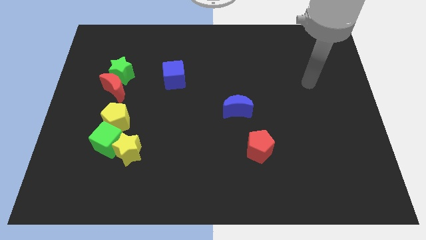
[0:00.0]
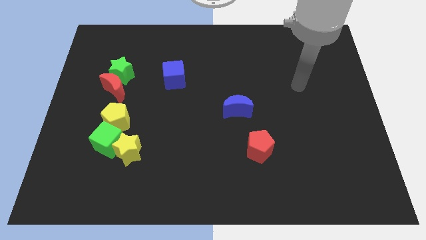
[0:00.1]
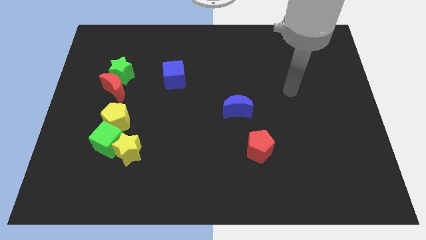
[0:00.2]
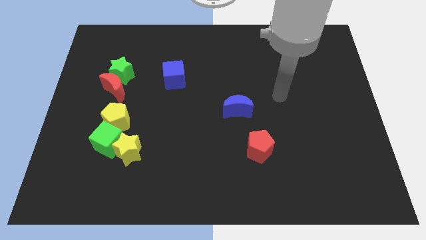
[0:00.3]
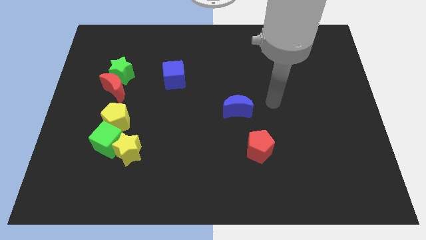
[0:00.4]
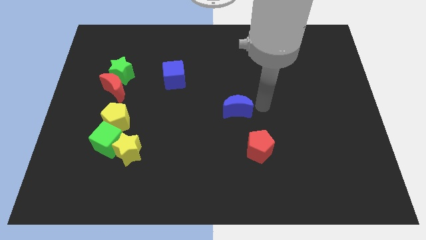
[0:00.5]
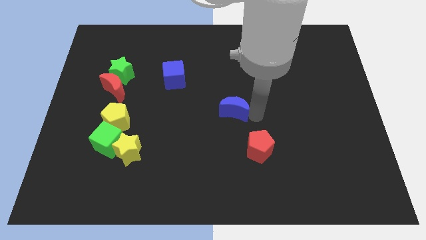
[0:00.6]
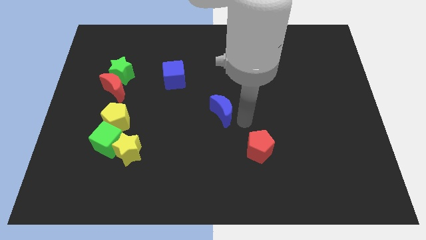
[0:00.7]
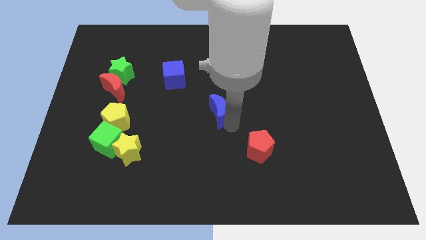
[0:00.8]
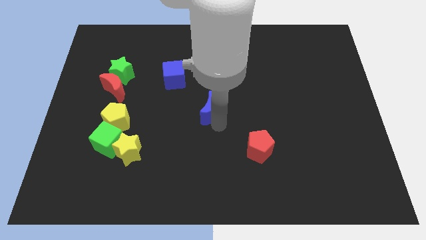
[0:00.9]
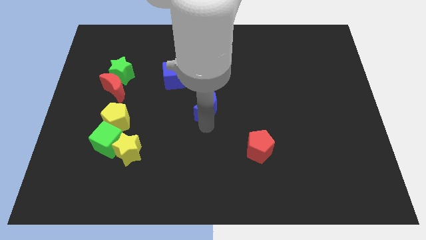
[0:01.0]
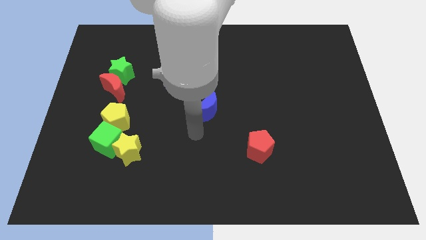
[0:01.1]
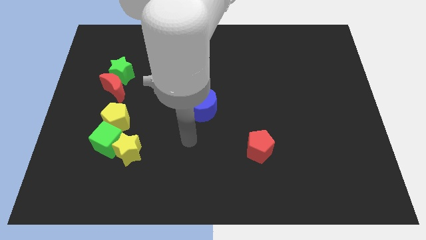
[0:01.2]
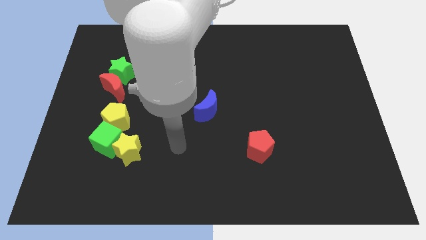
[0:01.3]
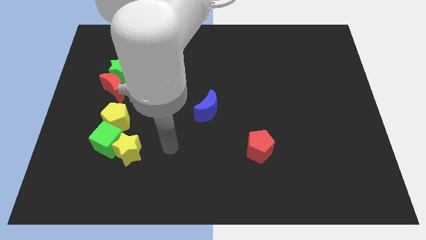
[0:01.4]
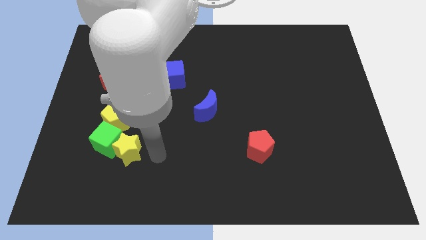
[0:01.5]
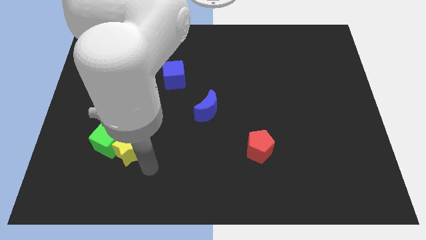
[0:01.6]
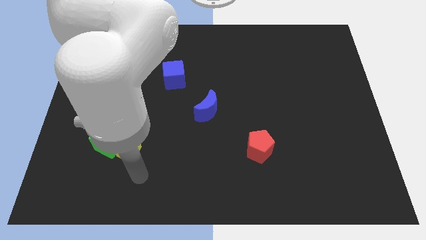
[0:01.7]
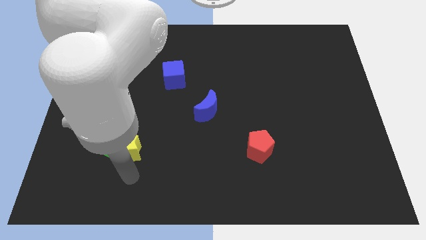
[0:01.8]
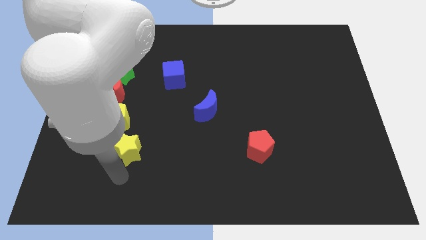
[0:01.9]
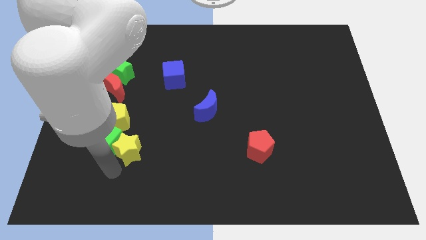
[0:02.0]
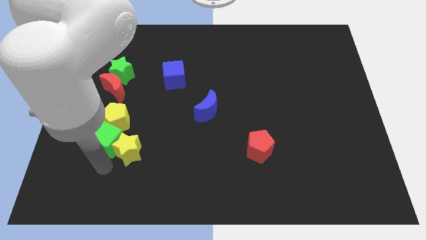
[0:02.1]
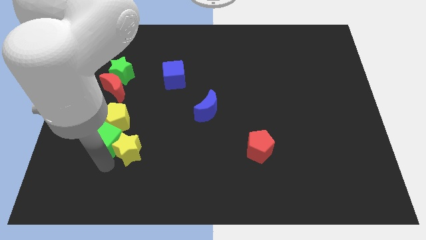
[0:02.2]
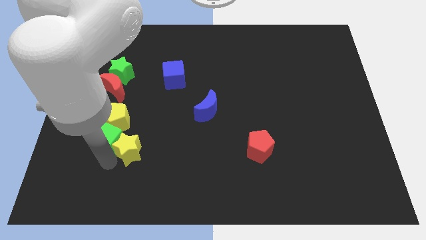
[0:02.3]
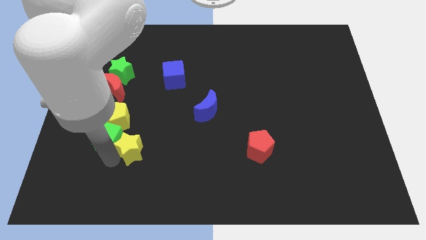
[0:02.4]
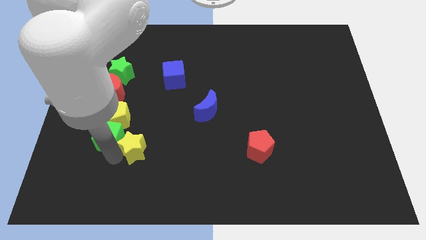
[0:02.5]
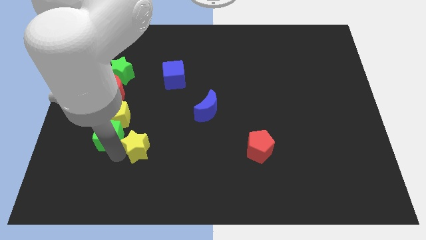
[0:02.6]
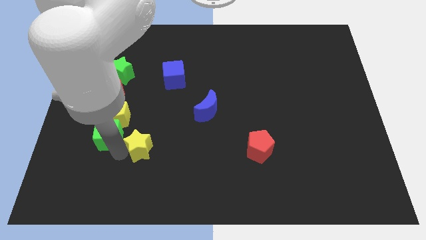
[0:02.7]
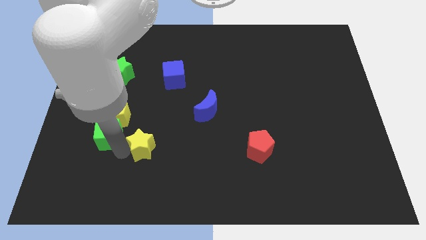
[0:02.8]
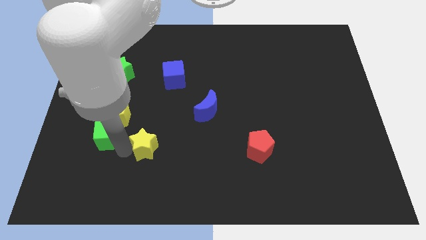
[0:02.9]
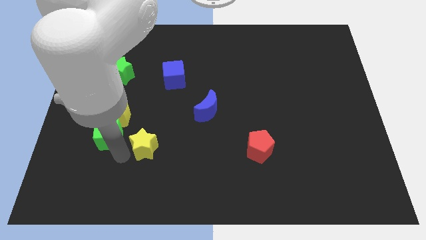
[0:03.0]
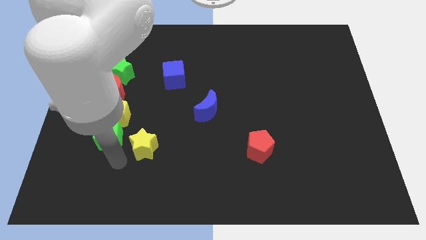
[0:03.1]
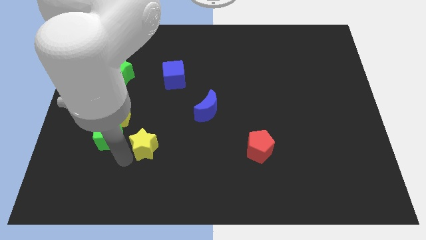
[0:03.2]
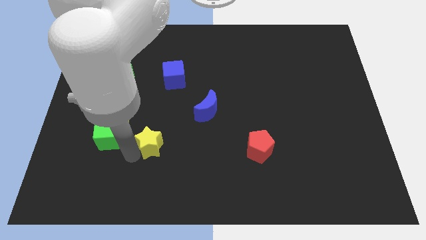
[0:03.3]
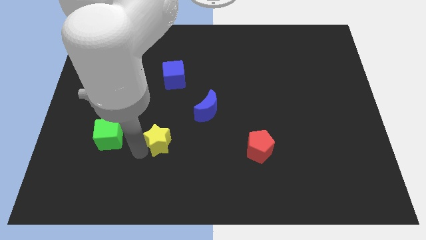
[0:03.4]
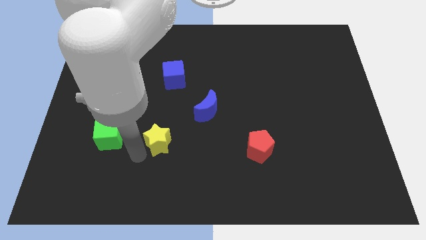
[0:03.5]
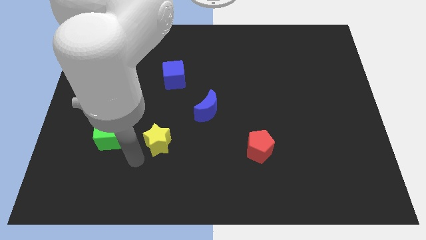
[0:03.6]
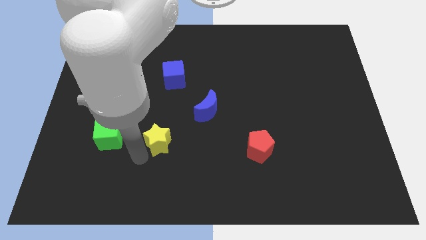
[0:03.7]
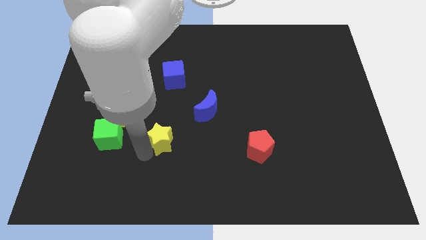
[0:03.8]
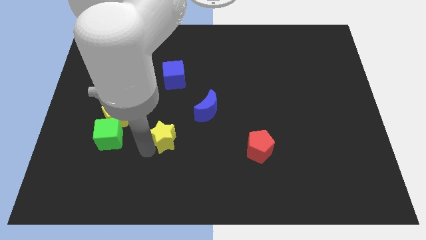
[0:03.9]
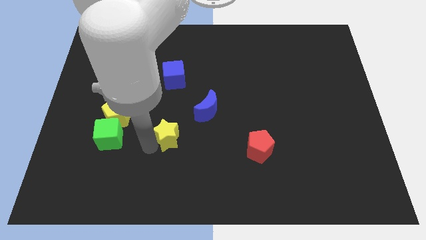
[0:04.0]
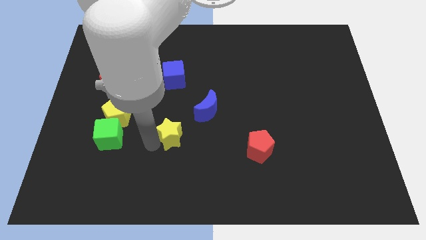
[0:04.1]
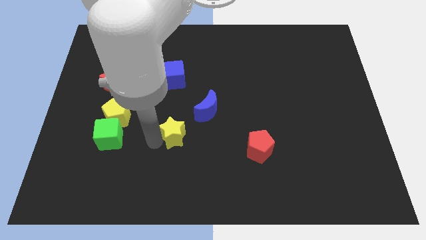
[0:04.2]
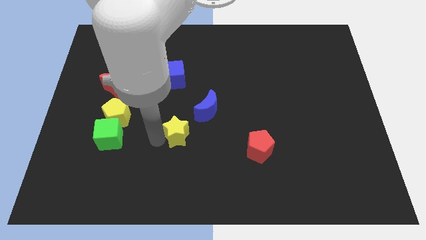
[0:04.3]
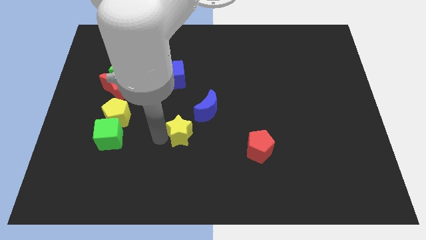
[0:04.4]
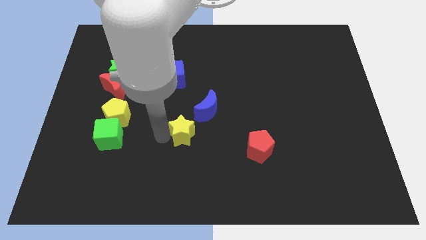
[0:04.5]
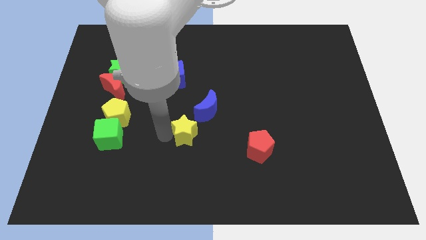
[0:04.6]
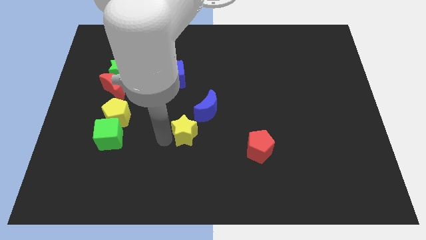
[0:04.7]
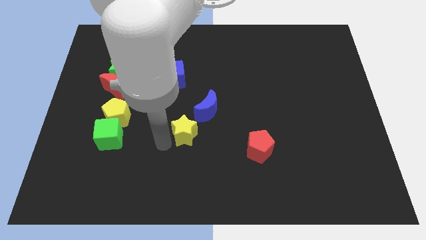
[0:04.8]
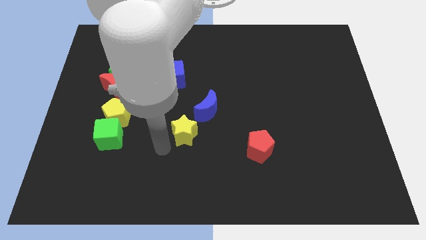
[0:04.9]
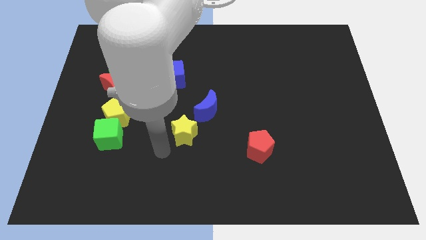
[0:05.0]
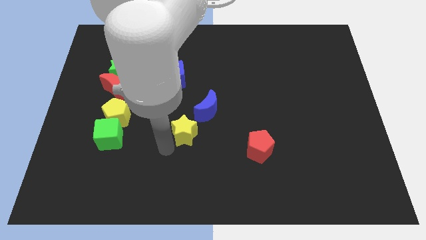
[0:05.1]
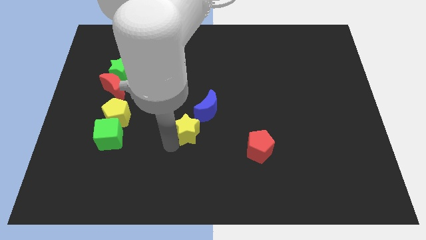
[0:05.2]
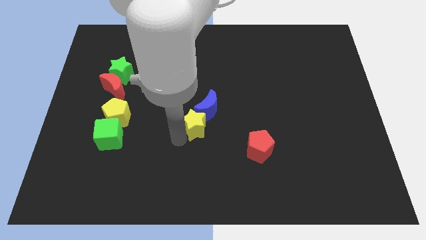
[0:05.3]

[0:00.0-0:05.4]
move the yellow star next to the blue moon

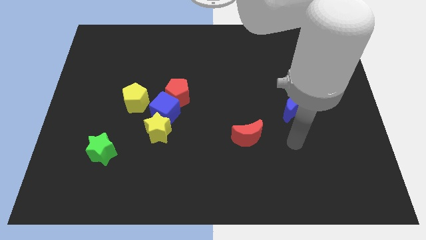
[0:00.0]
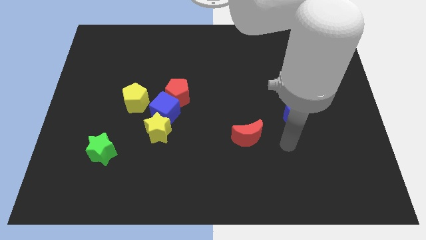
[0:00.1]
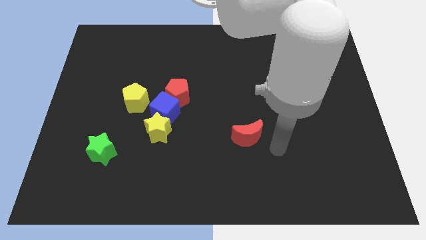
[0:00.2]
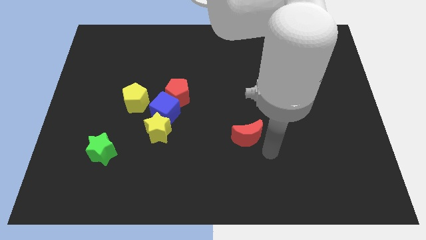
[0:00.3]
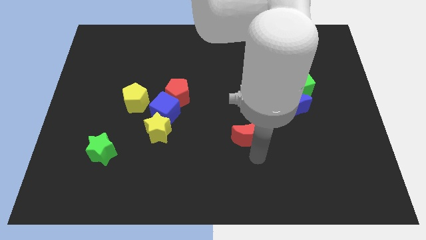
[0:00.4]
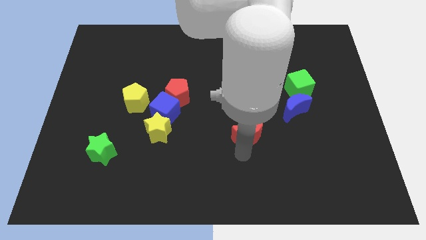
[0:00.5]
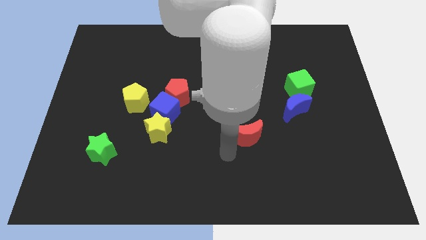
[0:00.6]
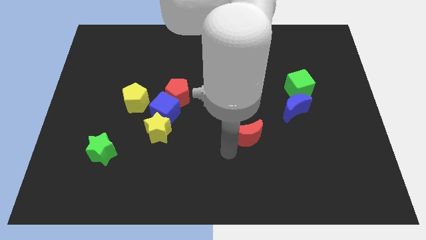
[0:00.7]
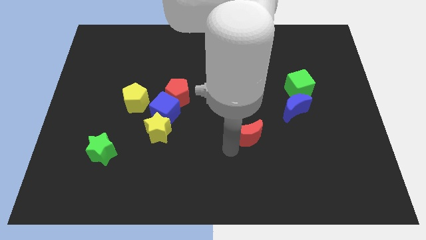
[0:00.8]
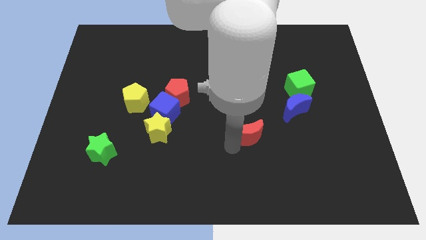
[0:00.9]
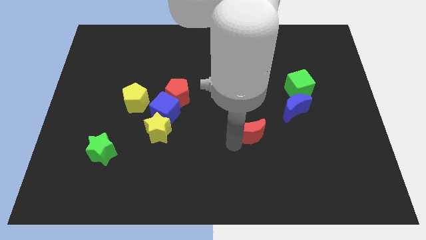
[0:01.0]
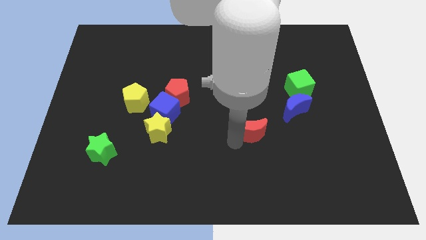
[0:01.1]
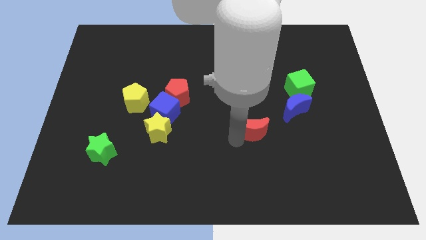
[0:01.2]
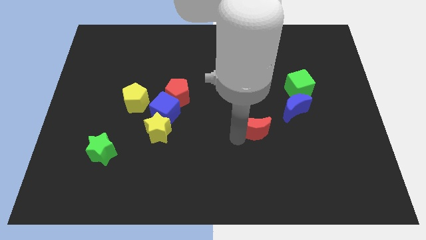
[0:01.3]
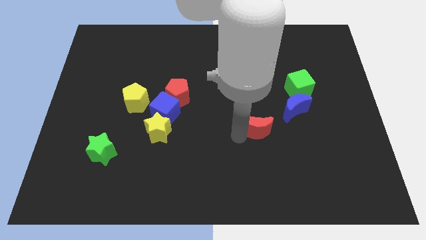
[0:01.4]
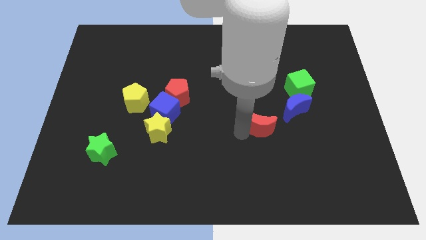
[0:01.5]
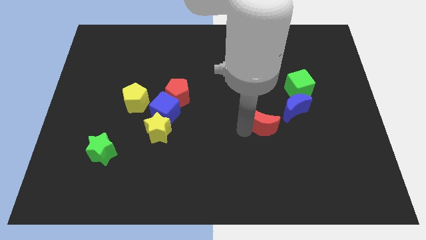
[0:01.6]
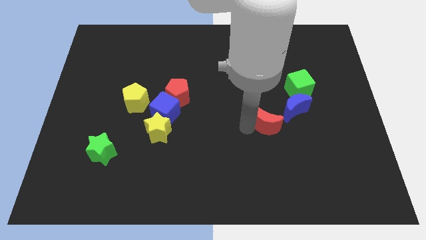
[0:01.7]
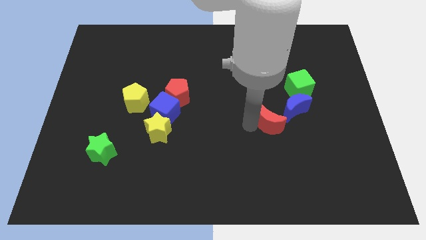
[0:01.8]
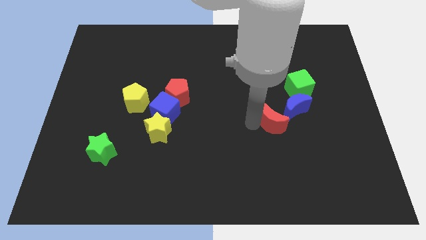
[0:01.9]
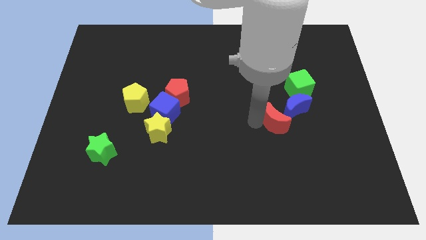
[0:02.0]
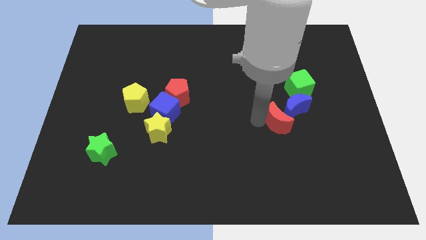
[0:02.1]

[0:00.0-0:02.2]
move the red moon close to the blue moon
